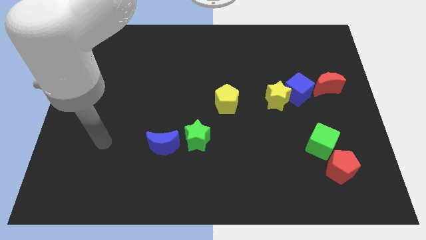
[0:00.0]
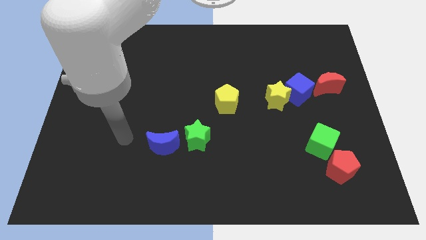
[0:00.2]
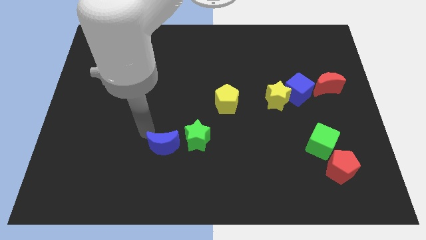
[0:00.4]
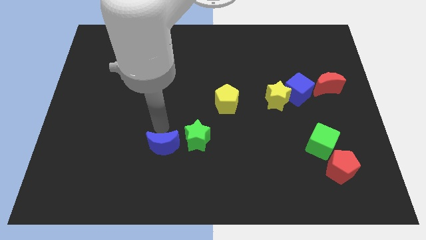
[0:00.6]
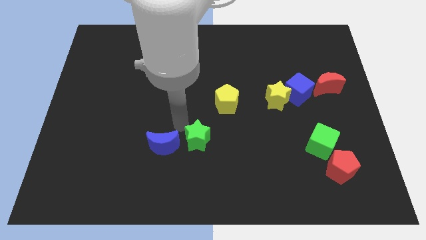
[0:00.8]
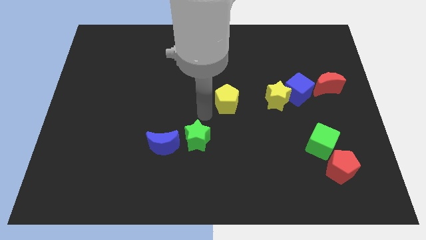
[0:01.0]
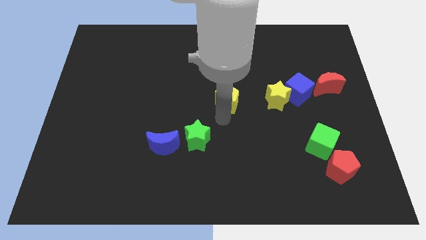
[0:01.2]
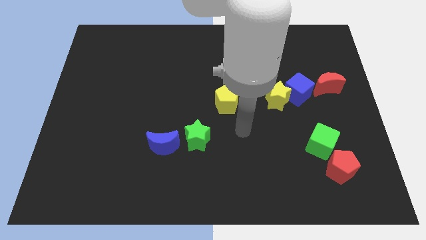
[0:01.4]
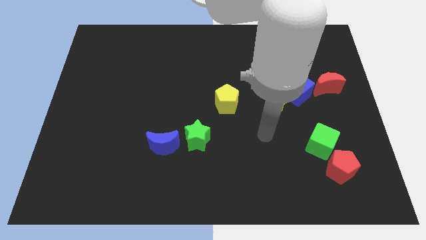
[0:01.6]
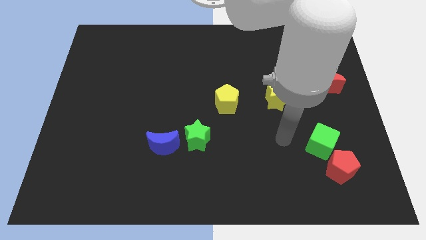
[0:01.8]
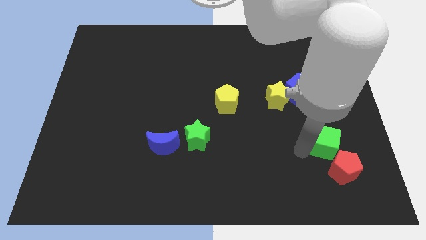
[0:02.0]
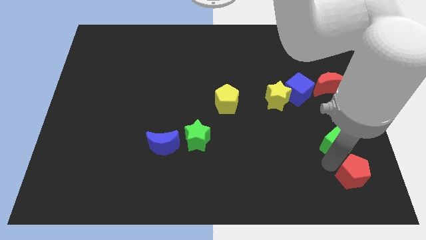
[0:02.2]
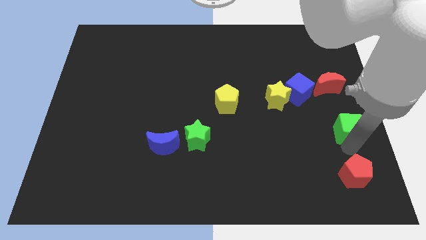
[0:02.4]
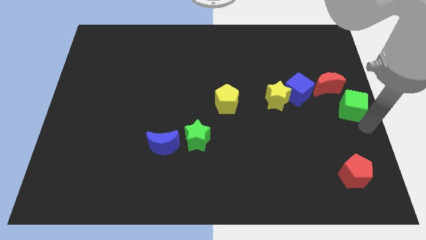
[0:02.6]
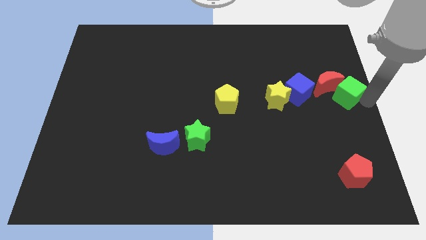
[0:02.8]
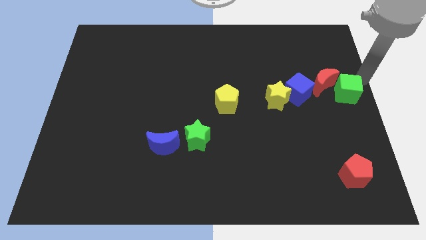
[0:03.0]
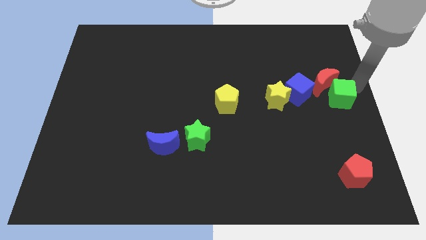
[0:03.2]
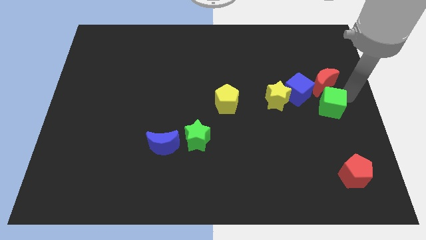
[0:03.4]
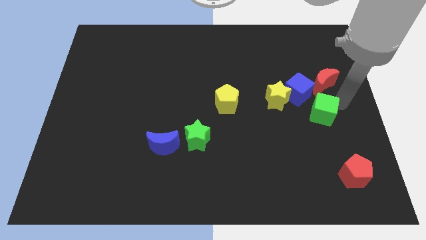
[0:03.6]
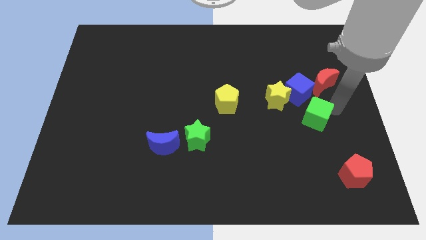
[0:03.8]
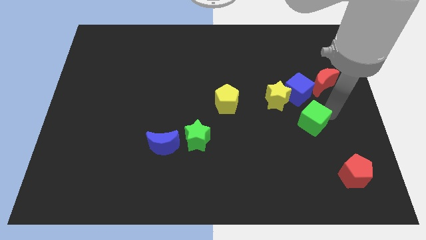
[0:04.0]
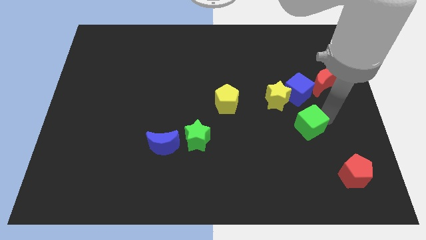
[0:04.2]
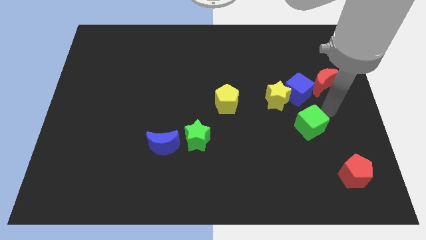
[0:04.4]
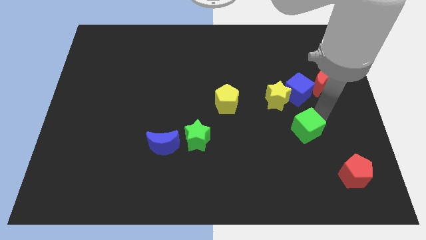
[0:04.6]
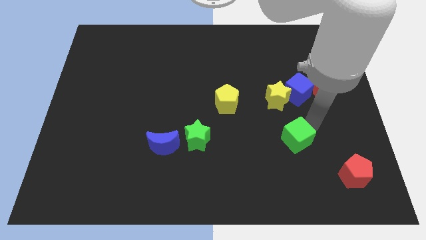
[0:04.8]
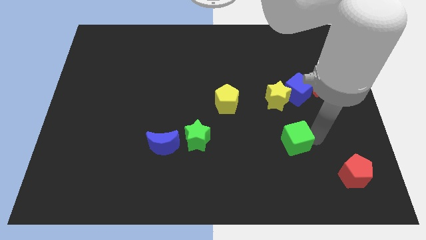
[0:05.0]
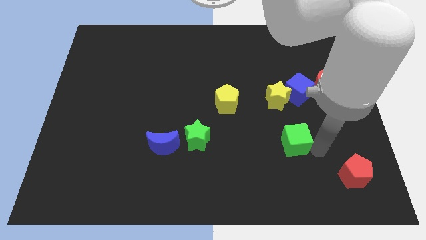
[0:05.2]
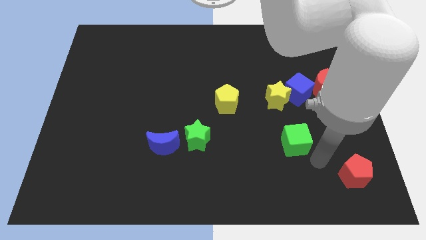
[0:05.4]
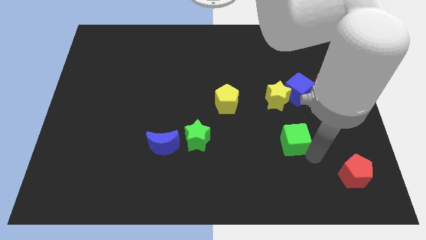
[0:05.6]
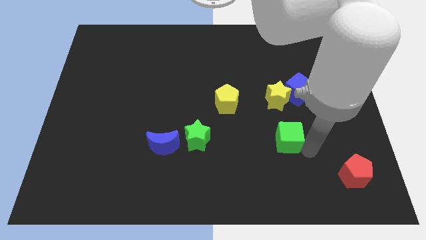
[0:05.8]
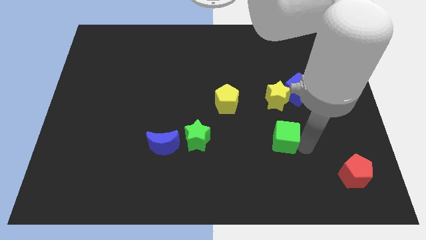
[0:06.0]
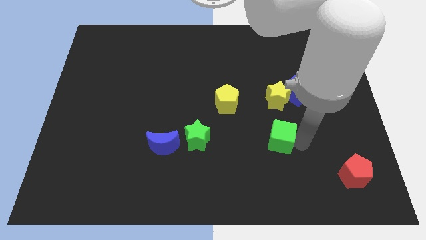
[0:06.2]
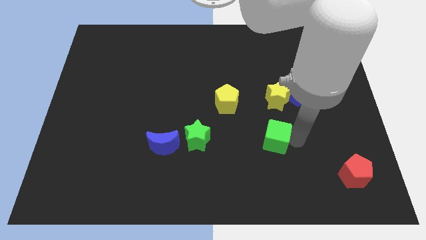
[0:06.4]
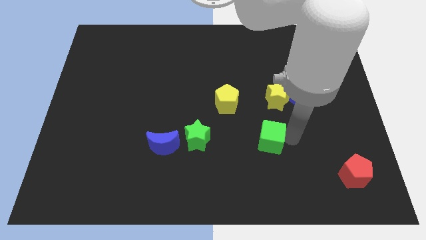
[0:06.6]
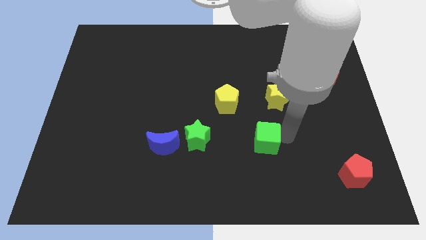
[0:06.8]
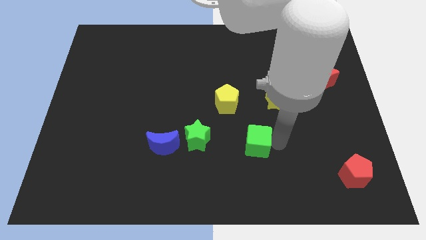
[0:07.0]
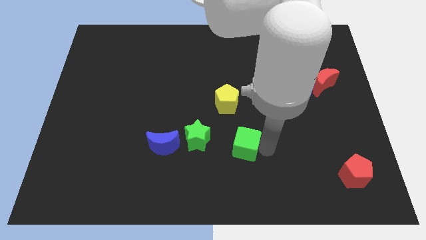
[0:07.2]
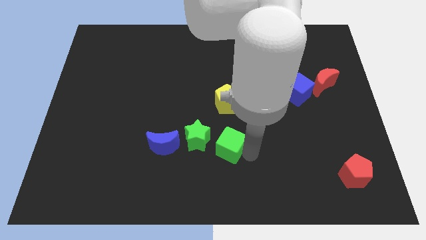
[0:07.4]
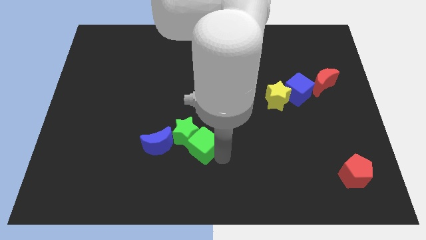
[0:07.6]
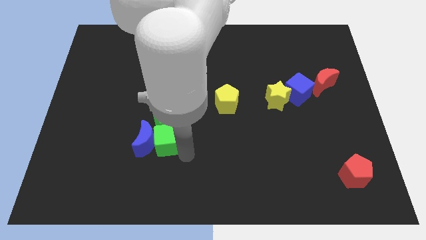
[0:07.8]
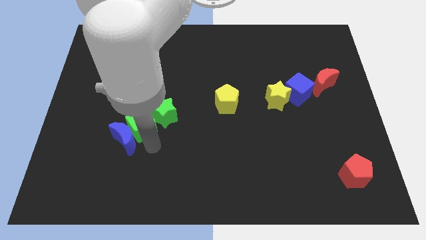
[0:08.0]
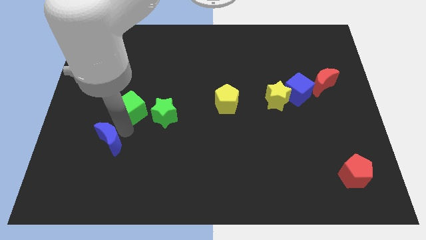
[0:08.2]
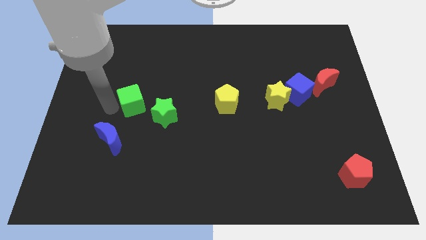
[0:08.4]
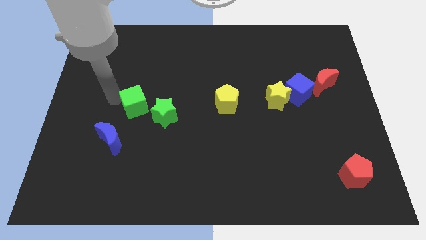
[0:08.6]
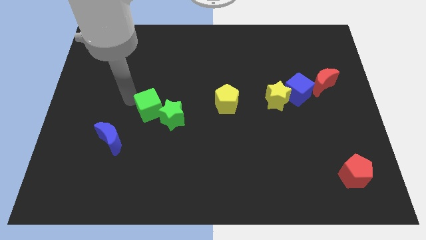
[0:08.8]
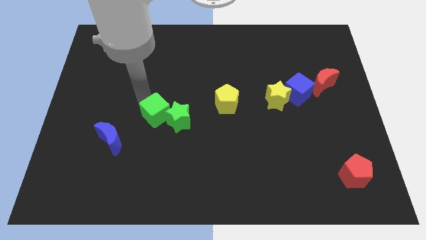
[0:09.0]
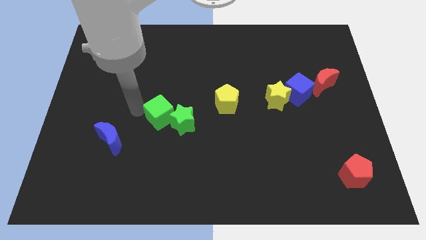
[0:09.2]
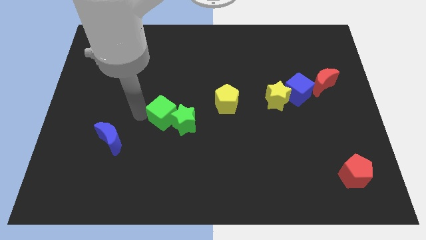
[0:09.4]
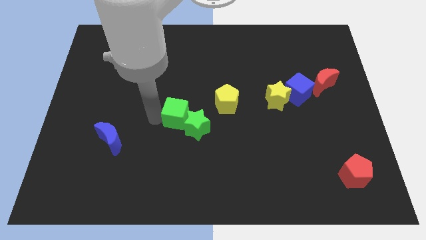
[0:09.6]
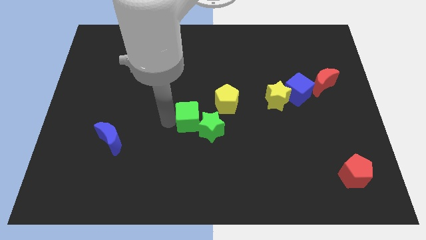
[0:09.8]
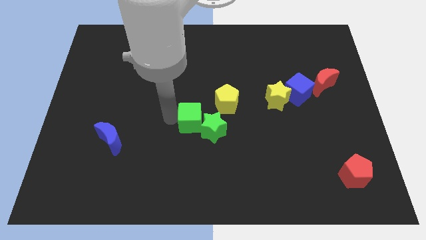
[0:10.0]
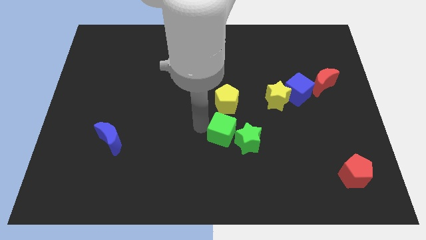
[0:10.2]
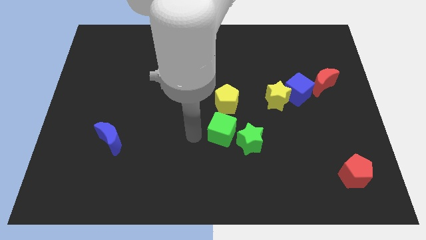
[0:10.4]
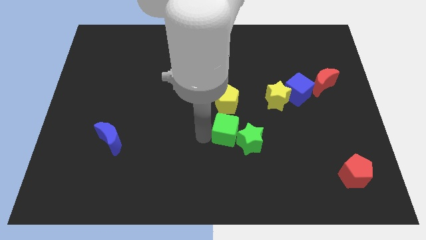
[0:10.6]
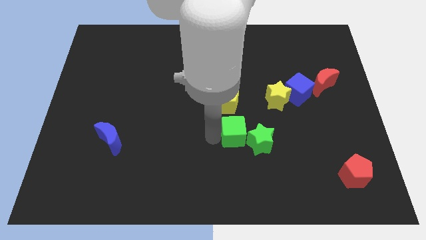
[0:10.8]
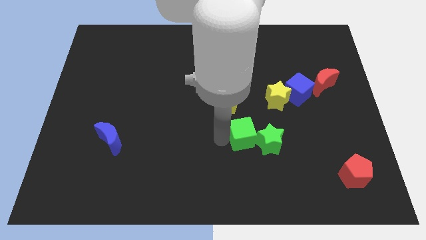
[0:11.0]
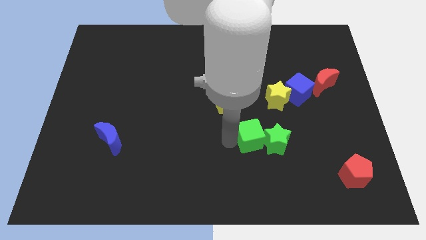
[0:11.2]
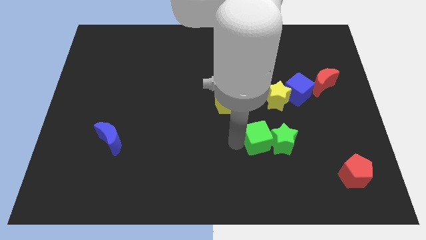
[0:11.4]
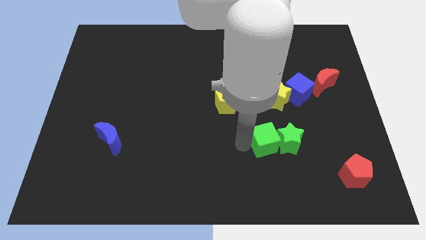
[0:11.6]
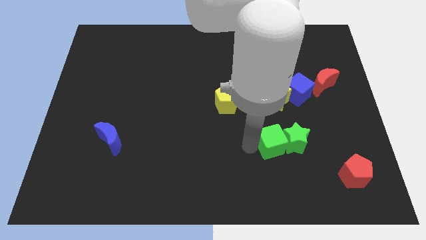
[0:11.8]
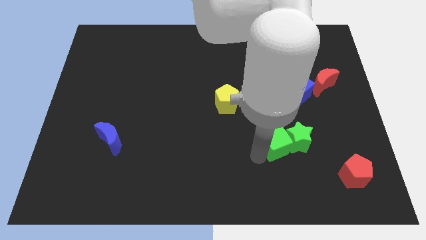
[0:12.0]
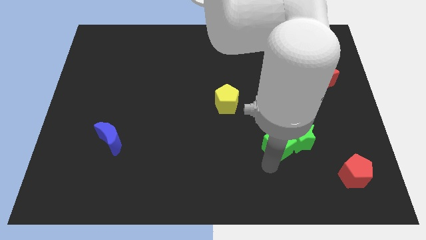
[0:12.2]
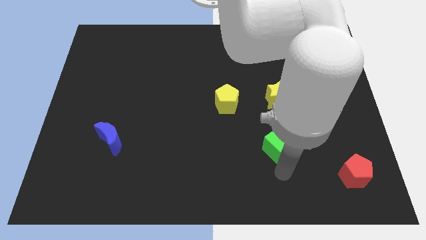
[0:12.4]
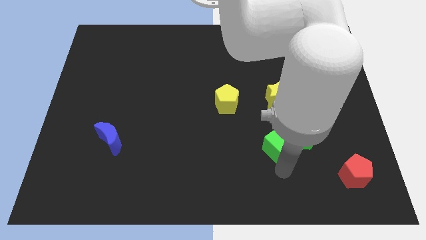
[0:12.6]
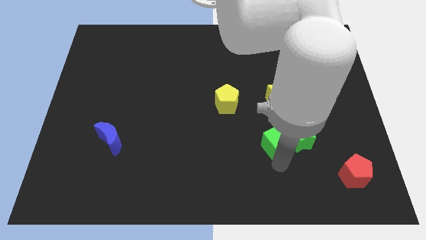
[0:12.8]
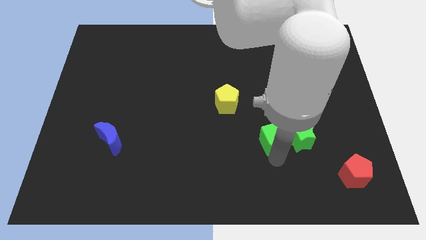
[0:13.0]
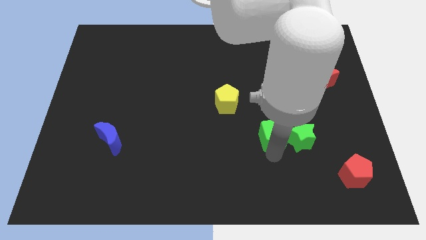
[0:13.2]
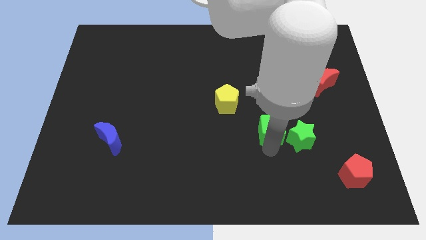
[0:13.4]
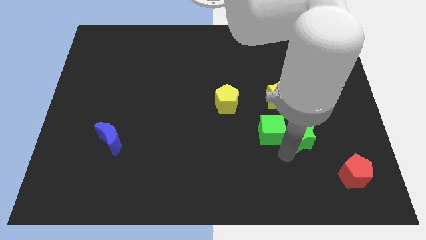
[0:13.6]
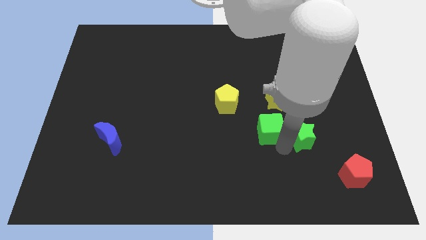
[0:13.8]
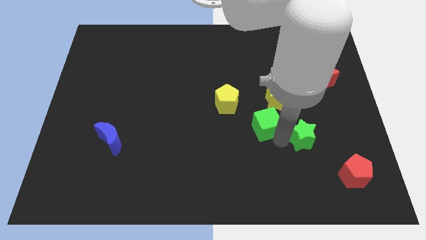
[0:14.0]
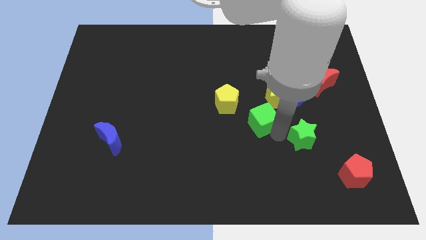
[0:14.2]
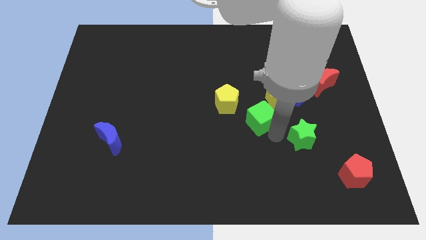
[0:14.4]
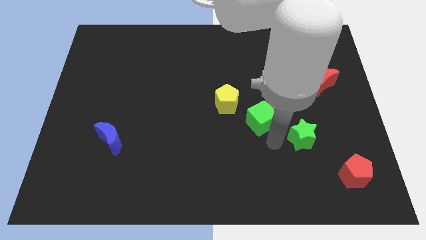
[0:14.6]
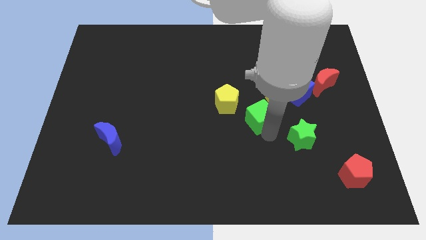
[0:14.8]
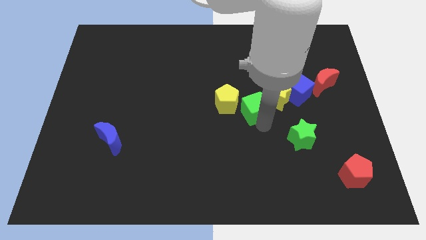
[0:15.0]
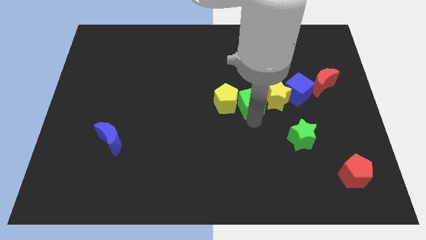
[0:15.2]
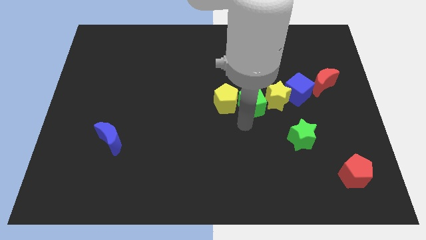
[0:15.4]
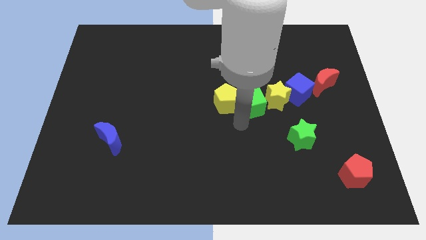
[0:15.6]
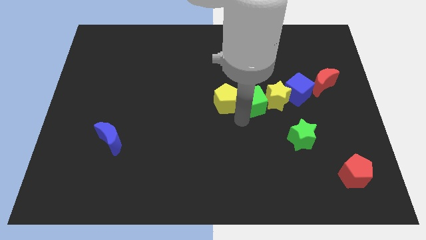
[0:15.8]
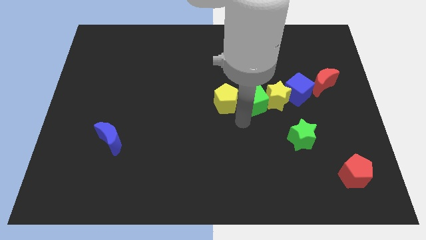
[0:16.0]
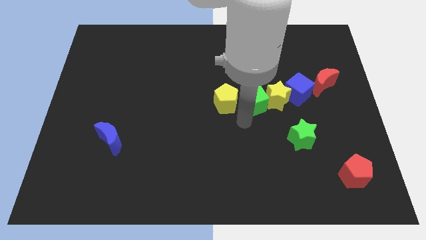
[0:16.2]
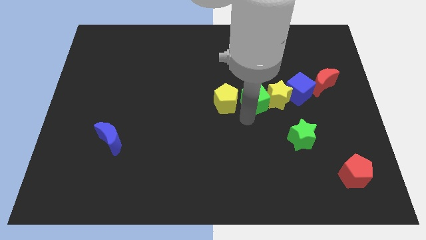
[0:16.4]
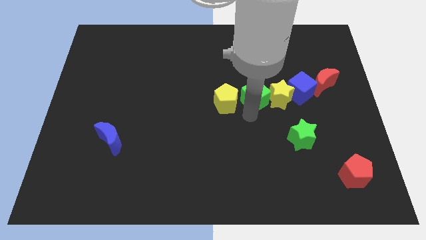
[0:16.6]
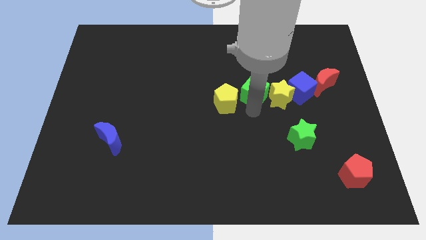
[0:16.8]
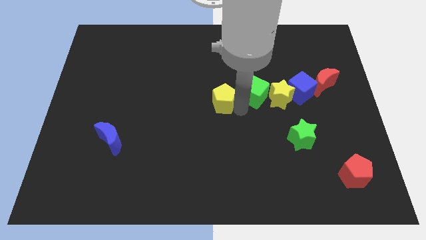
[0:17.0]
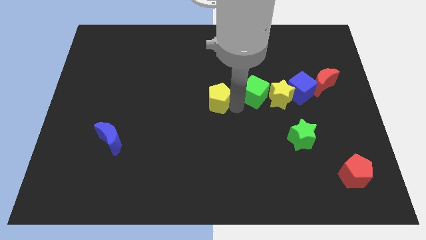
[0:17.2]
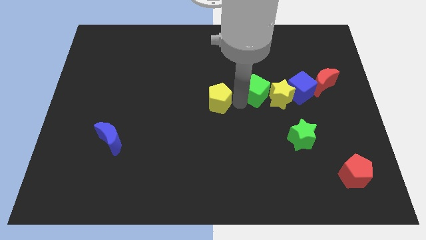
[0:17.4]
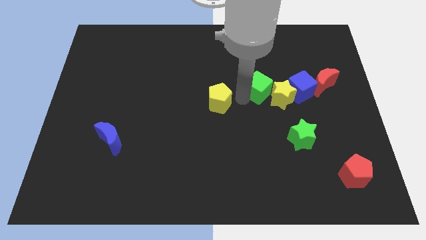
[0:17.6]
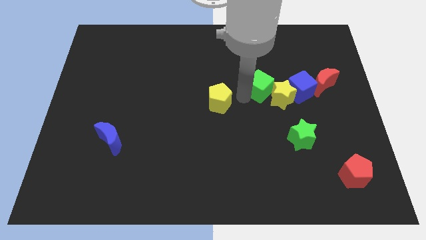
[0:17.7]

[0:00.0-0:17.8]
push the green cube to the left side of the red moon
